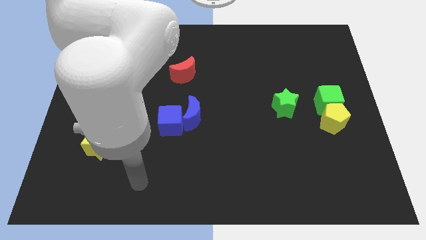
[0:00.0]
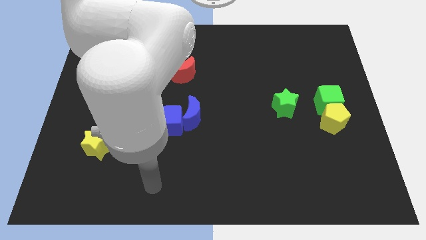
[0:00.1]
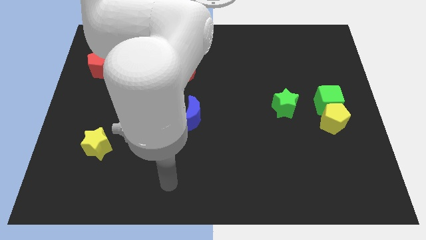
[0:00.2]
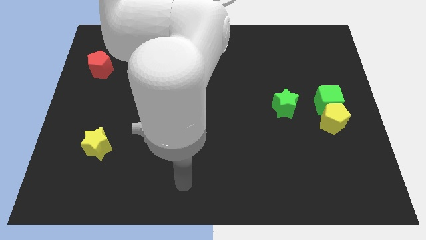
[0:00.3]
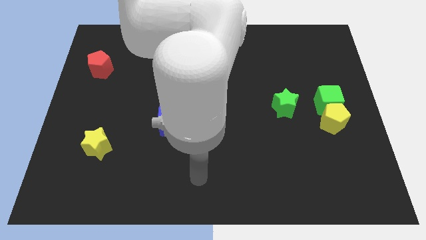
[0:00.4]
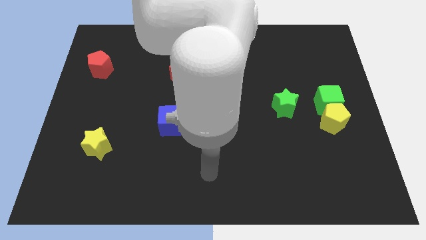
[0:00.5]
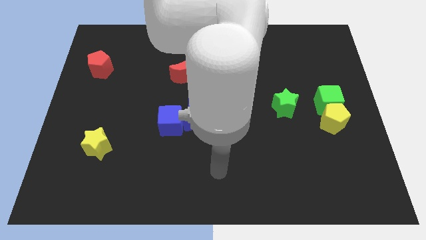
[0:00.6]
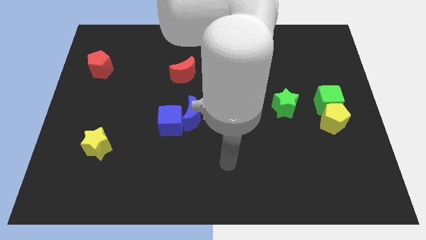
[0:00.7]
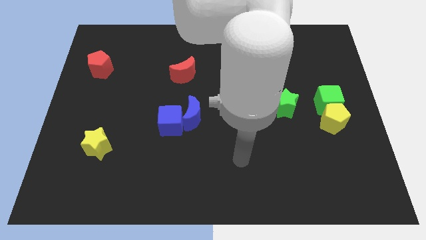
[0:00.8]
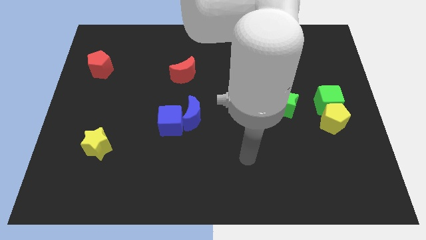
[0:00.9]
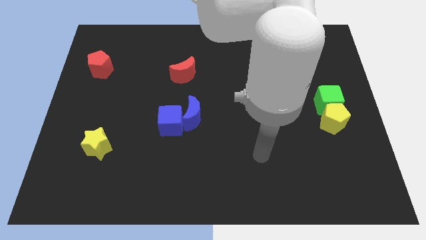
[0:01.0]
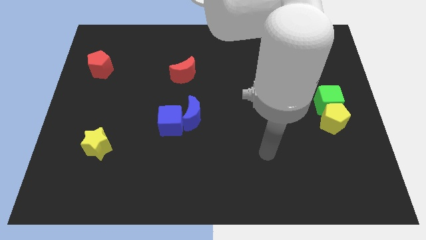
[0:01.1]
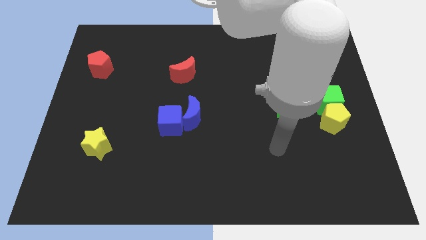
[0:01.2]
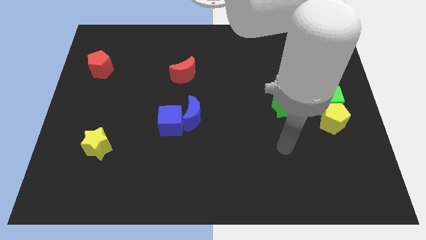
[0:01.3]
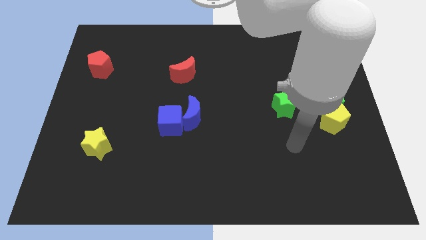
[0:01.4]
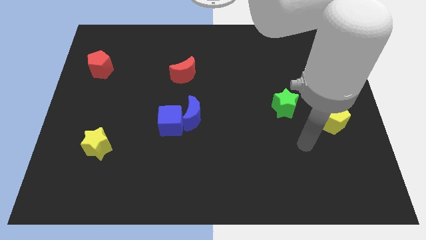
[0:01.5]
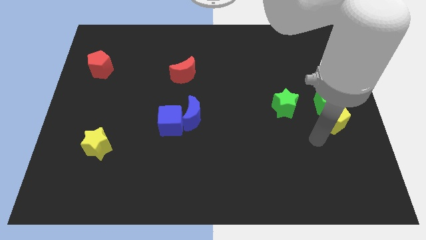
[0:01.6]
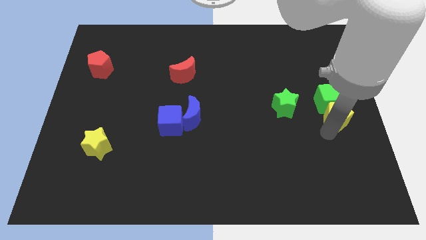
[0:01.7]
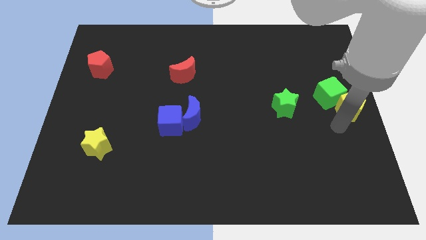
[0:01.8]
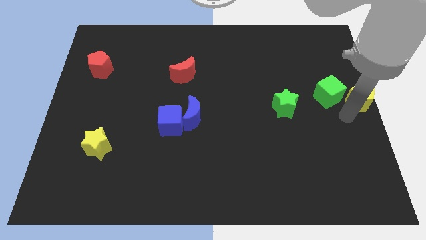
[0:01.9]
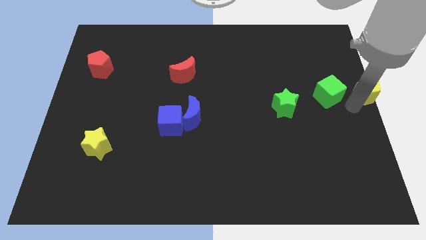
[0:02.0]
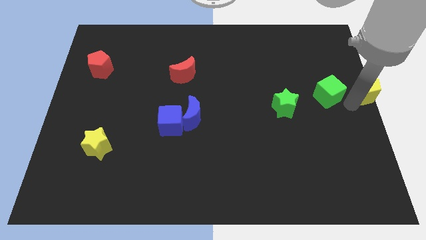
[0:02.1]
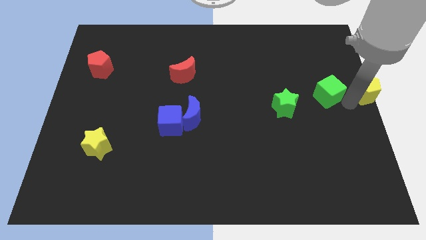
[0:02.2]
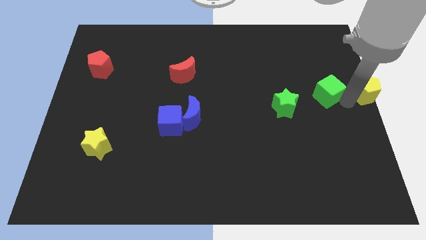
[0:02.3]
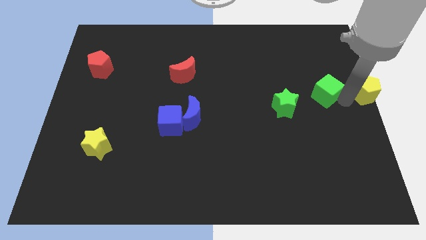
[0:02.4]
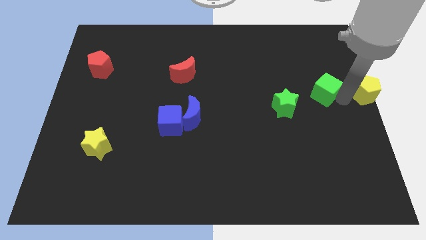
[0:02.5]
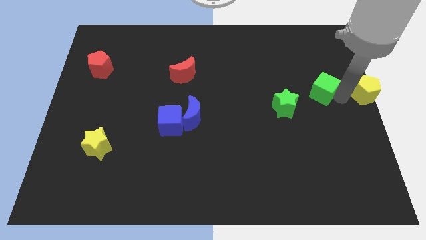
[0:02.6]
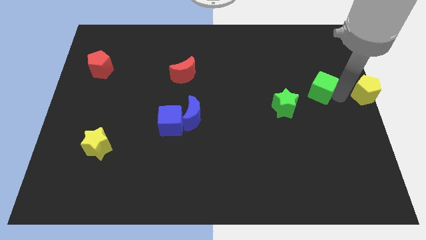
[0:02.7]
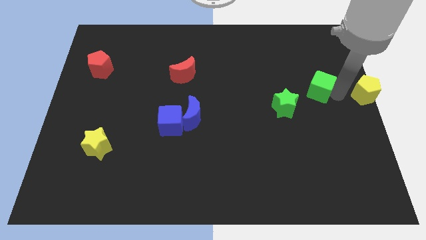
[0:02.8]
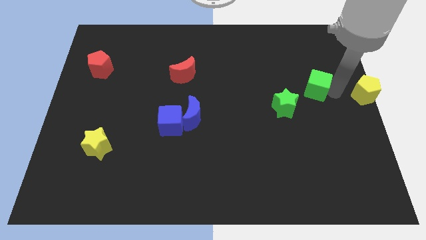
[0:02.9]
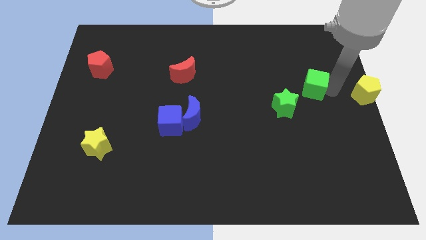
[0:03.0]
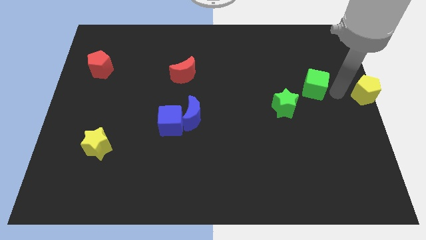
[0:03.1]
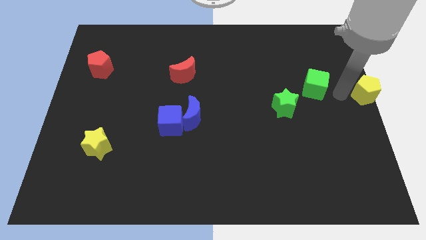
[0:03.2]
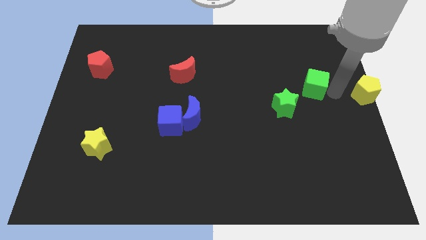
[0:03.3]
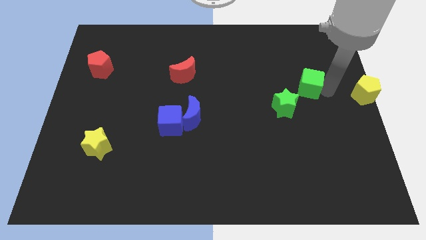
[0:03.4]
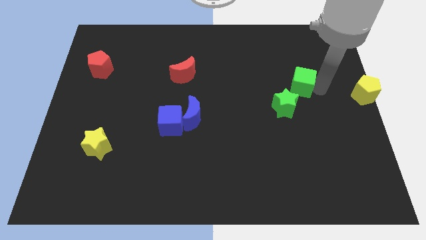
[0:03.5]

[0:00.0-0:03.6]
slide the green cube a little up and left

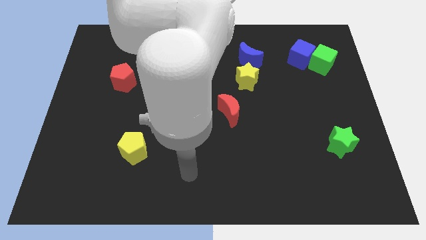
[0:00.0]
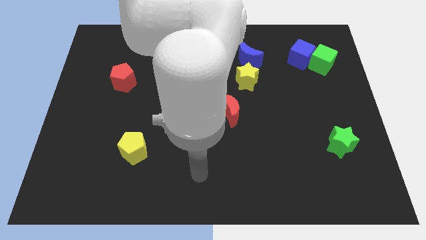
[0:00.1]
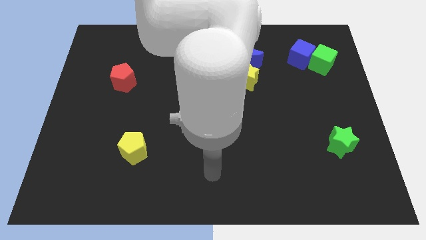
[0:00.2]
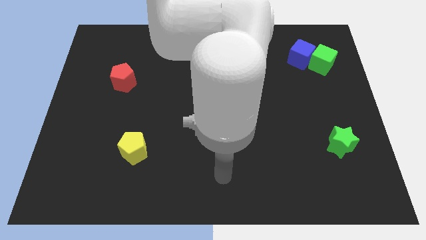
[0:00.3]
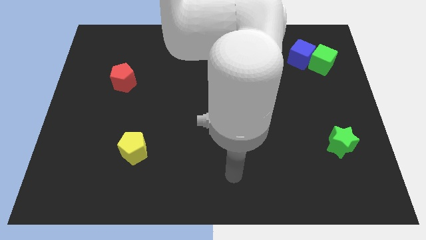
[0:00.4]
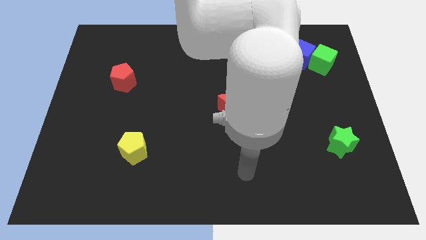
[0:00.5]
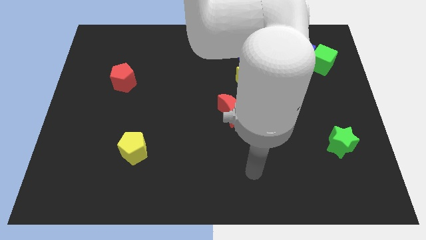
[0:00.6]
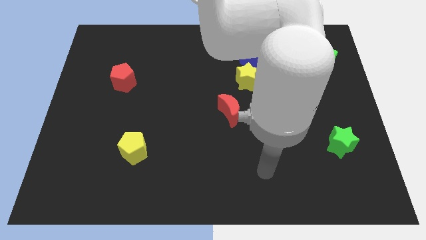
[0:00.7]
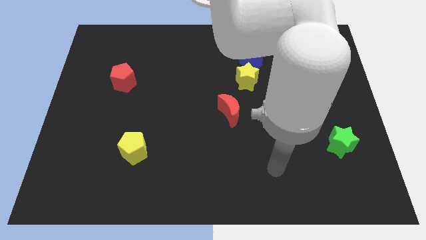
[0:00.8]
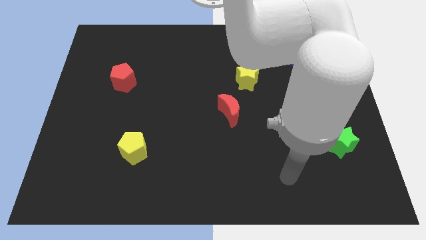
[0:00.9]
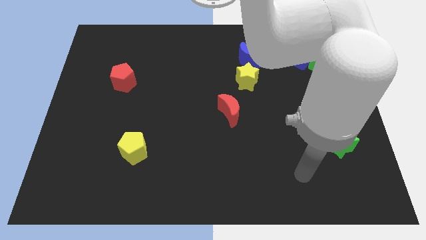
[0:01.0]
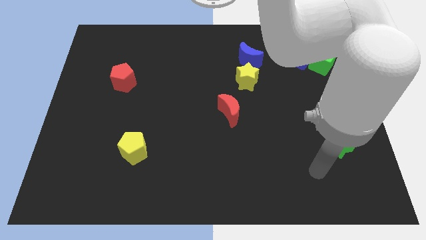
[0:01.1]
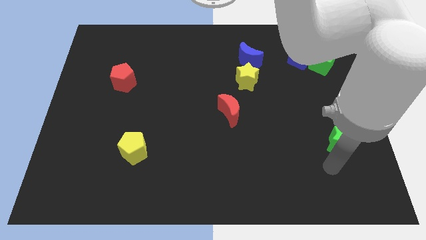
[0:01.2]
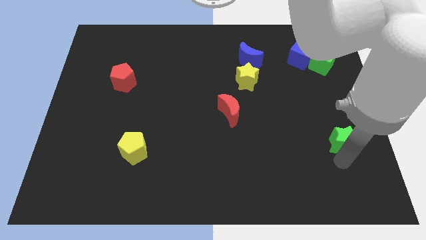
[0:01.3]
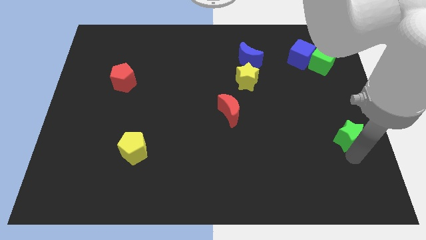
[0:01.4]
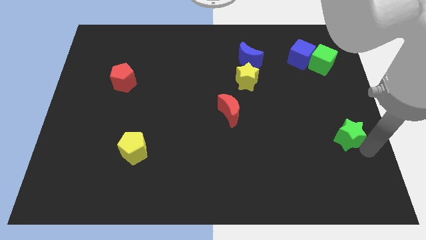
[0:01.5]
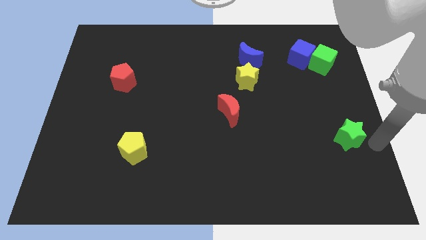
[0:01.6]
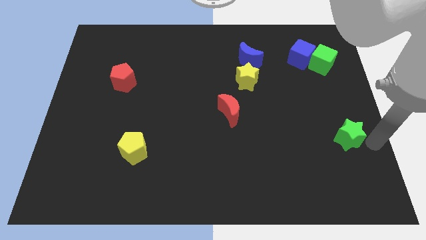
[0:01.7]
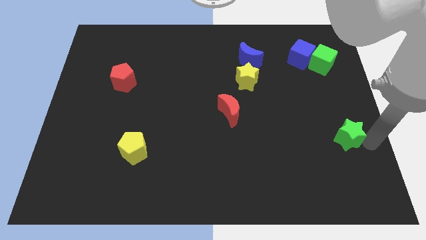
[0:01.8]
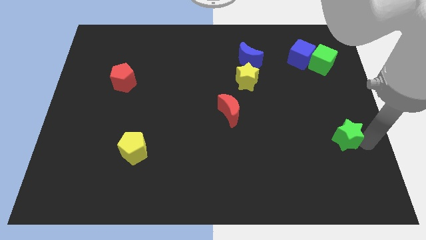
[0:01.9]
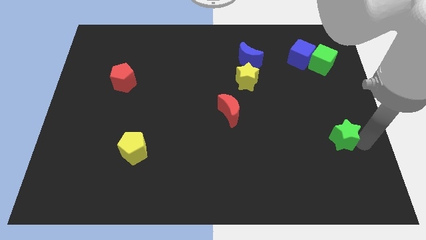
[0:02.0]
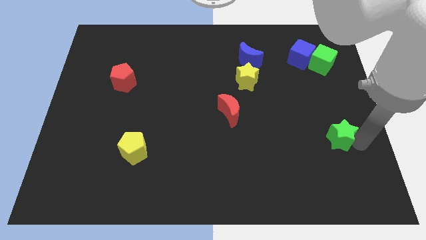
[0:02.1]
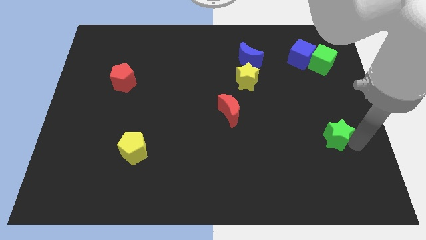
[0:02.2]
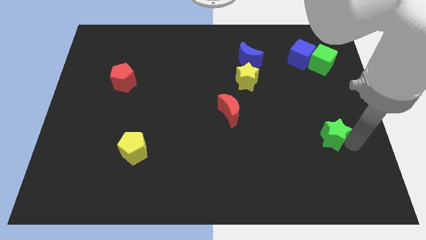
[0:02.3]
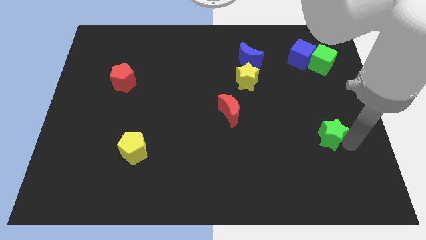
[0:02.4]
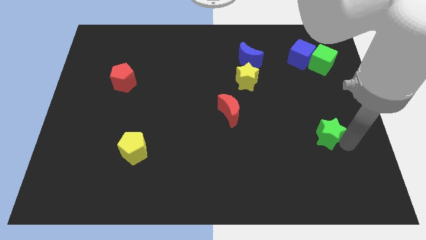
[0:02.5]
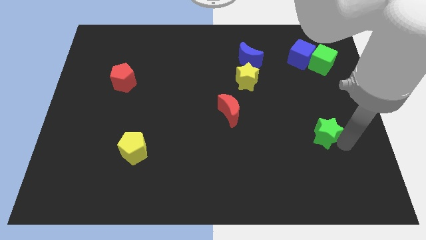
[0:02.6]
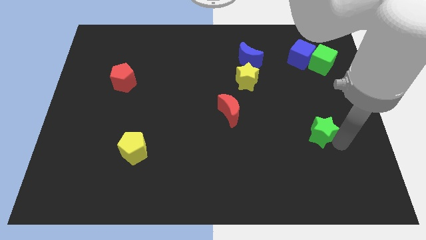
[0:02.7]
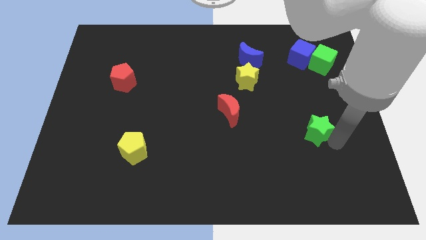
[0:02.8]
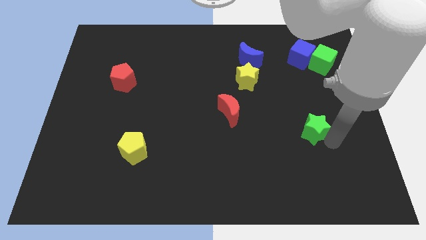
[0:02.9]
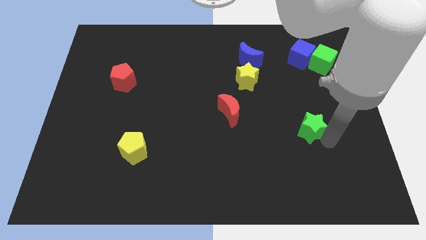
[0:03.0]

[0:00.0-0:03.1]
push the green star somewhat up and to the left diagonally

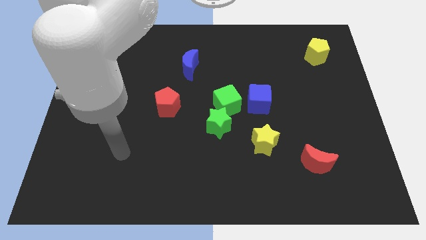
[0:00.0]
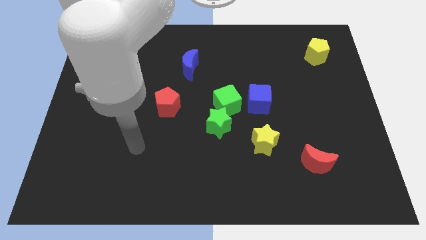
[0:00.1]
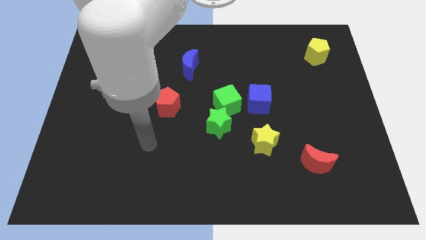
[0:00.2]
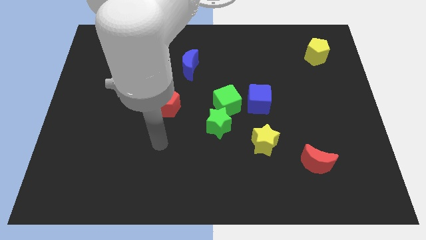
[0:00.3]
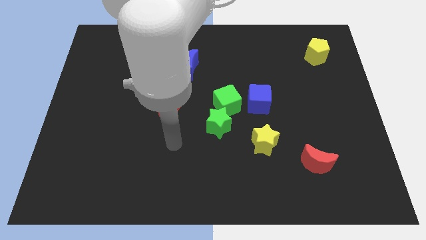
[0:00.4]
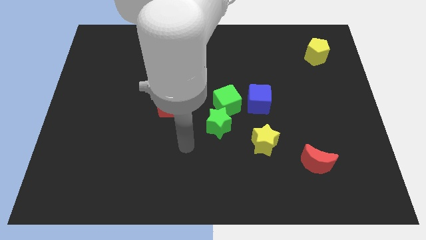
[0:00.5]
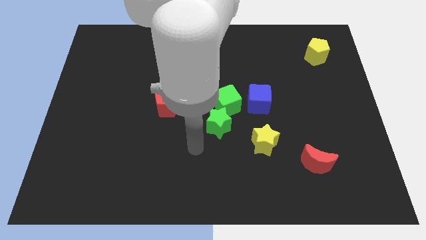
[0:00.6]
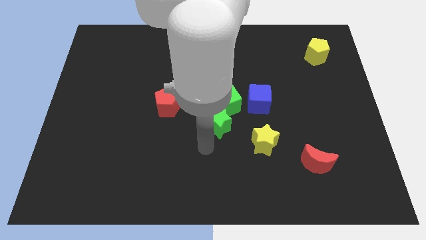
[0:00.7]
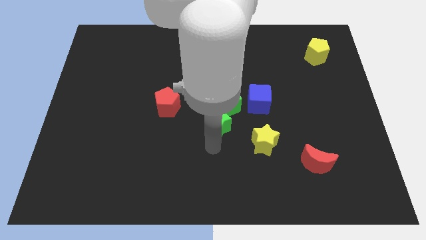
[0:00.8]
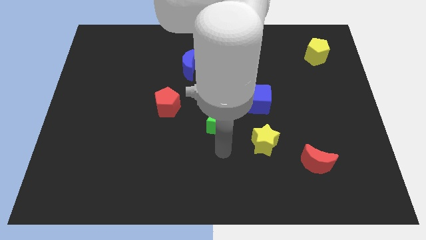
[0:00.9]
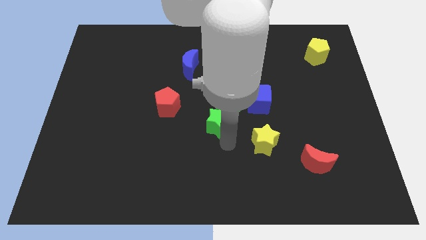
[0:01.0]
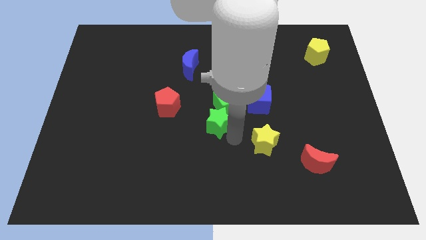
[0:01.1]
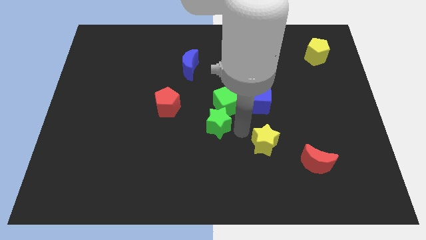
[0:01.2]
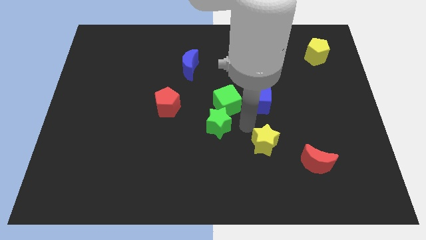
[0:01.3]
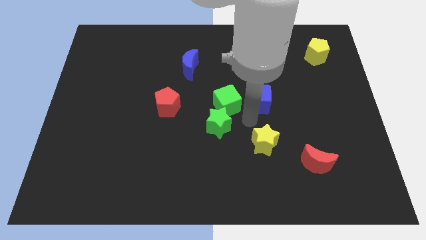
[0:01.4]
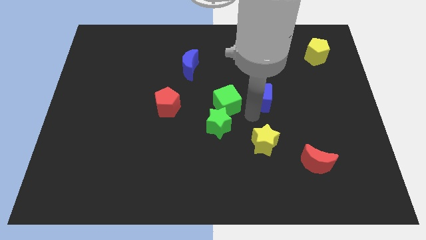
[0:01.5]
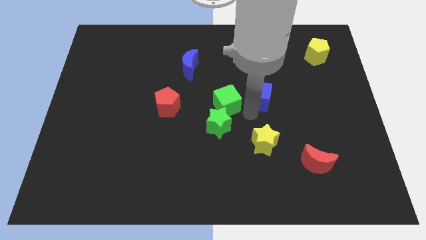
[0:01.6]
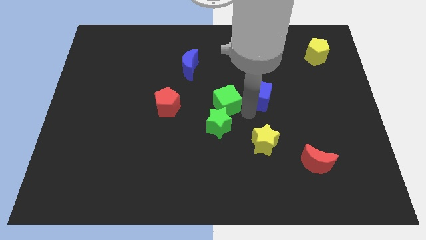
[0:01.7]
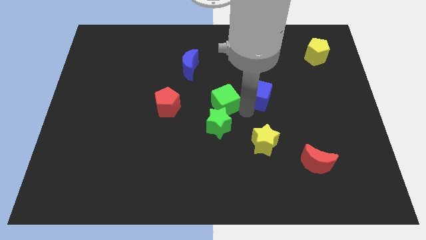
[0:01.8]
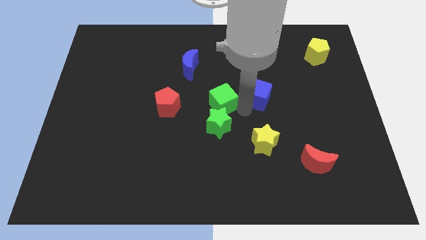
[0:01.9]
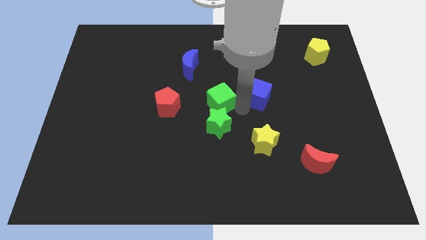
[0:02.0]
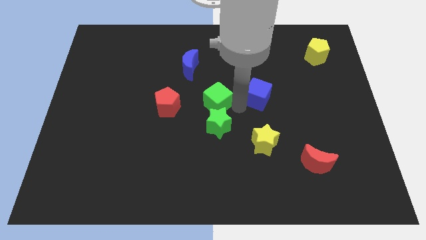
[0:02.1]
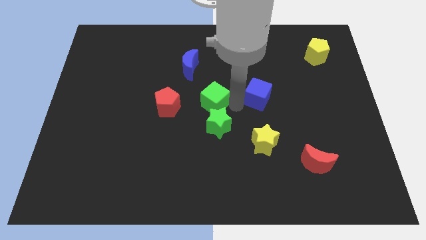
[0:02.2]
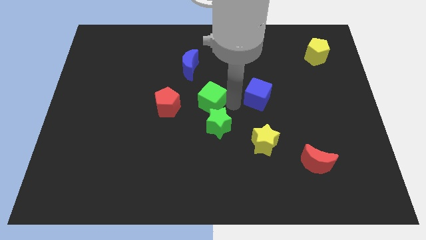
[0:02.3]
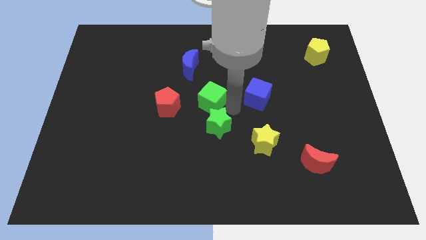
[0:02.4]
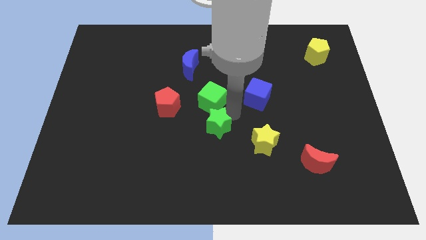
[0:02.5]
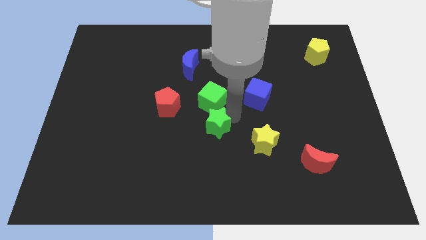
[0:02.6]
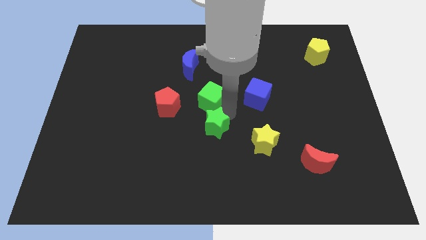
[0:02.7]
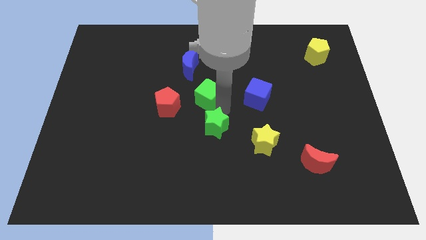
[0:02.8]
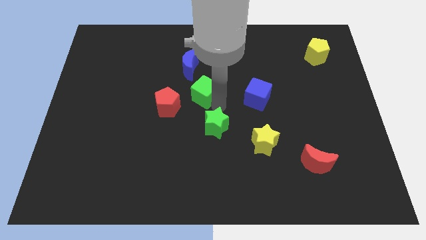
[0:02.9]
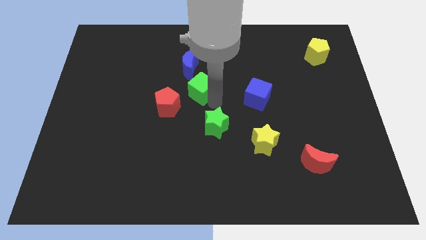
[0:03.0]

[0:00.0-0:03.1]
push the green cube somewhat up and left diagonally
